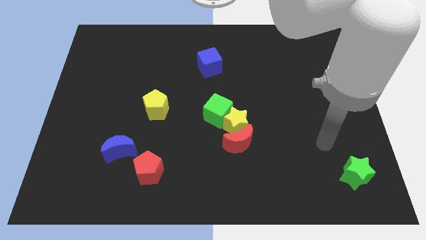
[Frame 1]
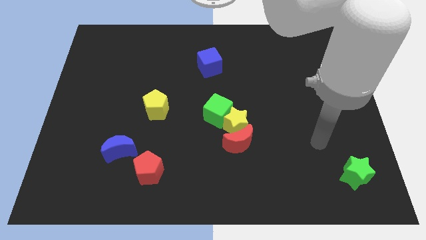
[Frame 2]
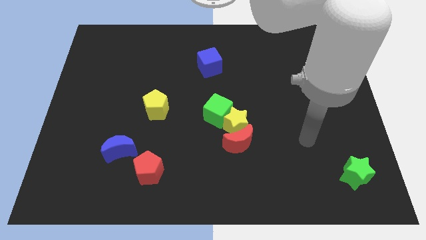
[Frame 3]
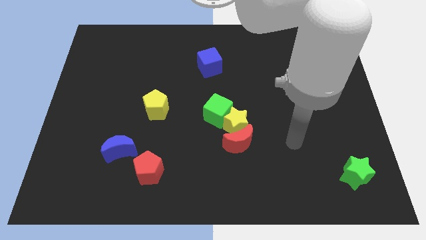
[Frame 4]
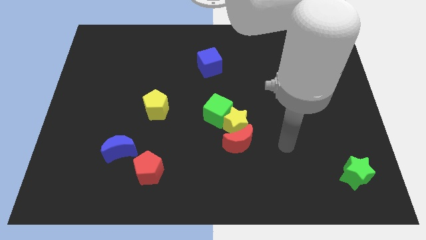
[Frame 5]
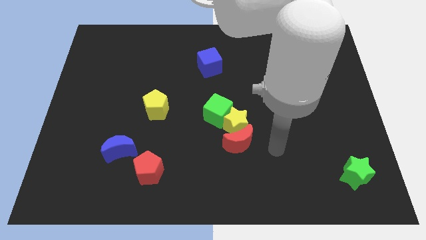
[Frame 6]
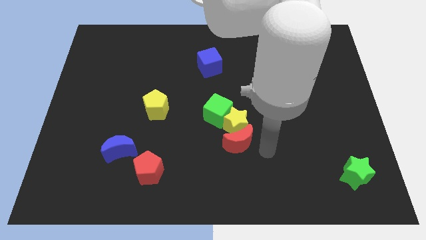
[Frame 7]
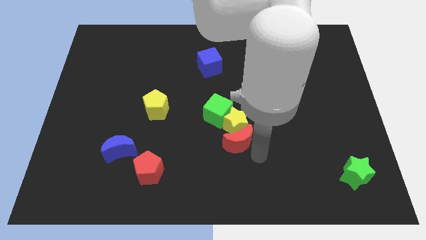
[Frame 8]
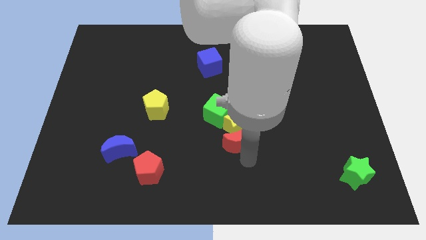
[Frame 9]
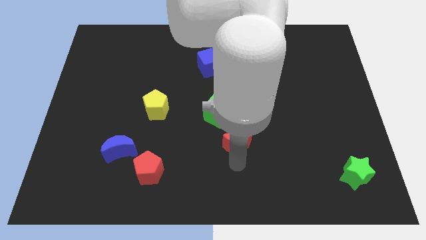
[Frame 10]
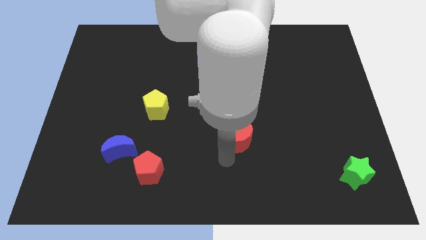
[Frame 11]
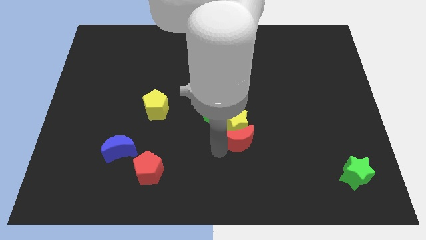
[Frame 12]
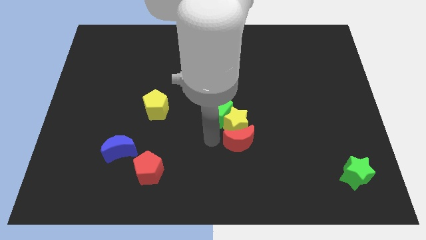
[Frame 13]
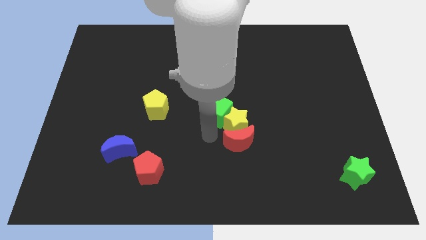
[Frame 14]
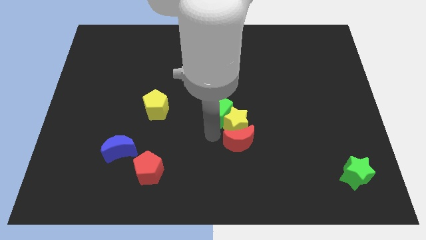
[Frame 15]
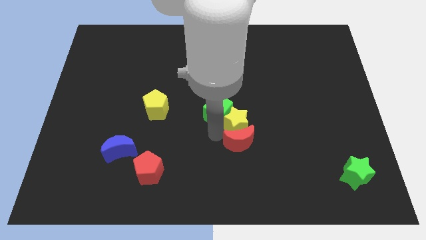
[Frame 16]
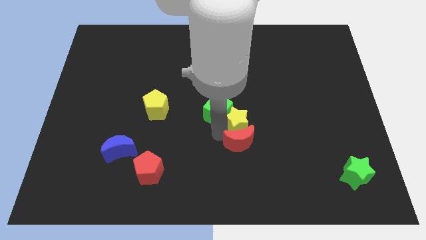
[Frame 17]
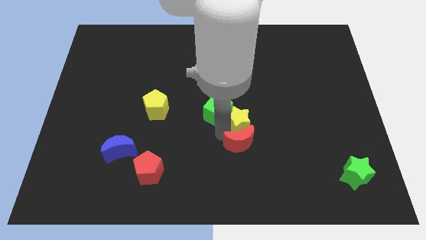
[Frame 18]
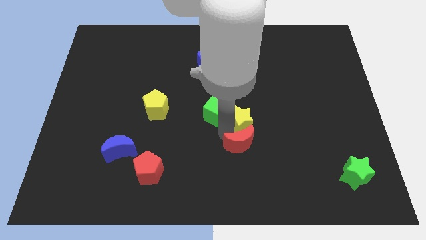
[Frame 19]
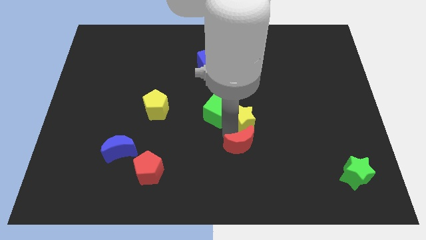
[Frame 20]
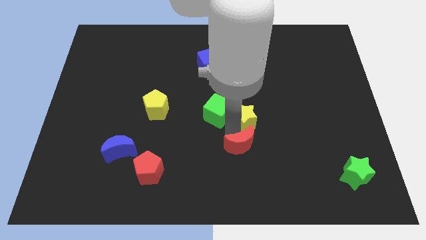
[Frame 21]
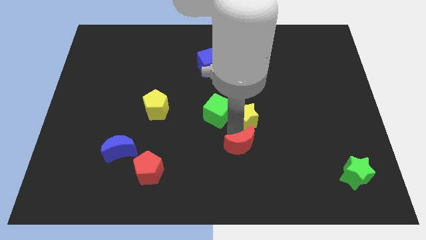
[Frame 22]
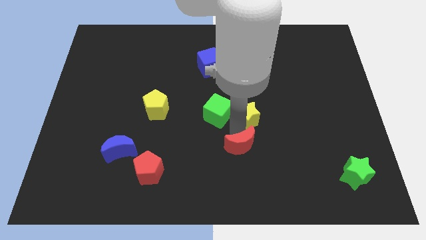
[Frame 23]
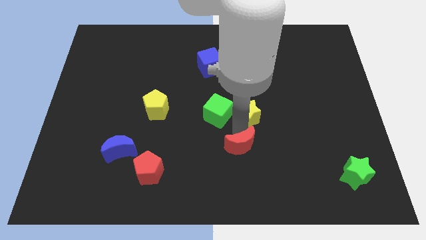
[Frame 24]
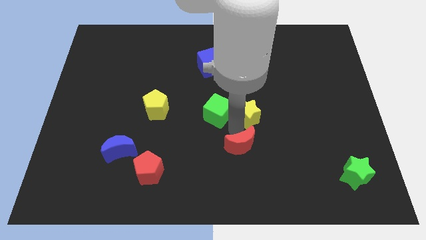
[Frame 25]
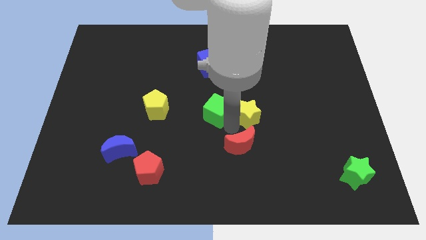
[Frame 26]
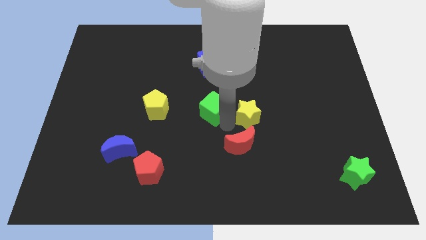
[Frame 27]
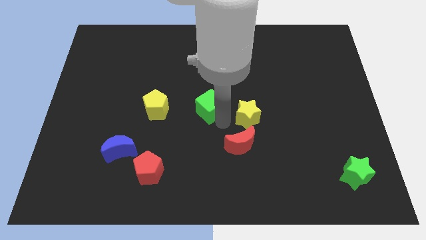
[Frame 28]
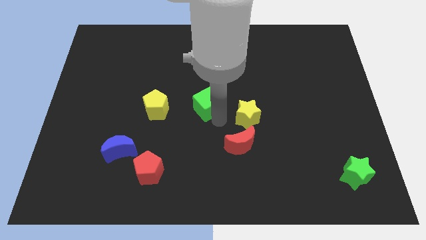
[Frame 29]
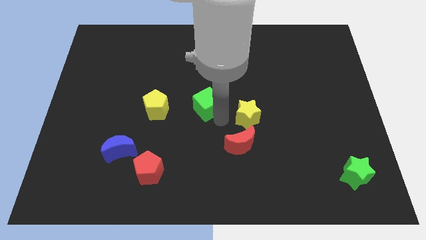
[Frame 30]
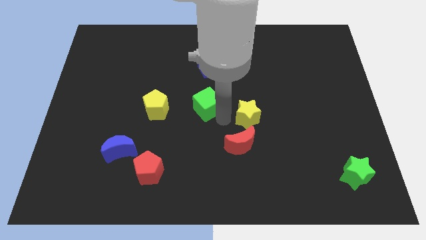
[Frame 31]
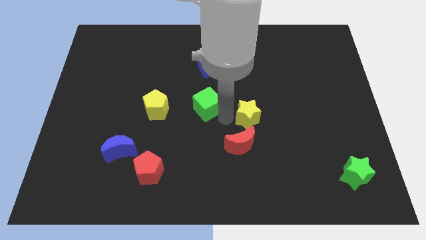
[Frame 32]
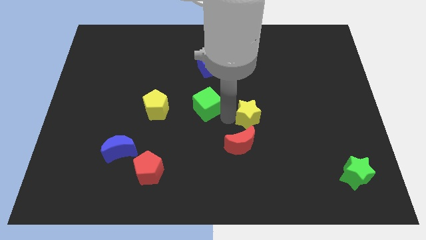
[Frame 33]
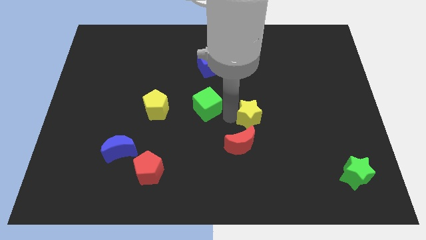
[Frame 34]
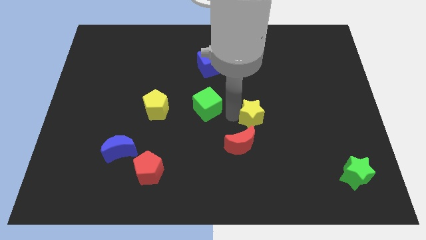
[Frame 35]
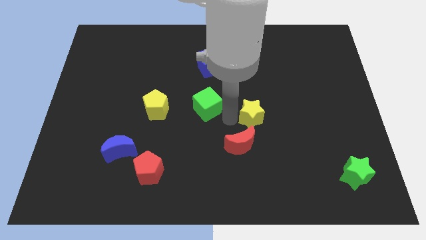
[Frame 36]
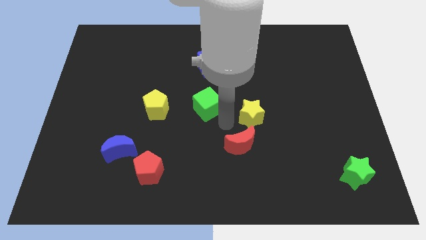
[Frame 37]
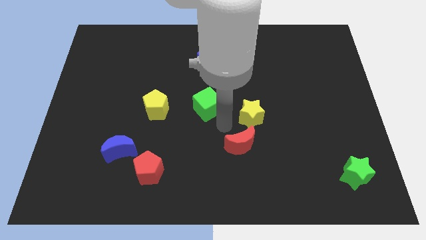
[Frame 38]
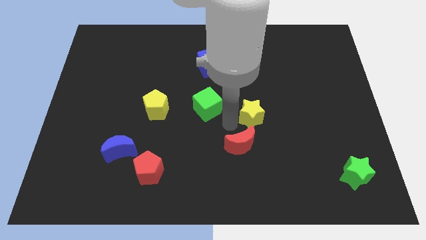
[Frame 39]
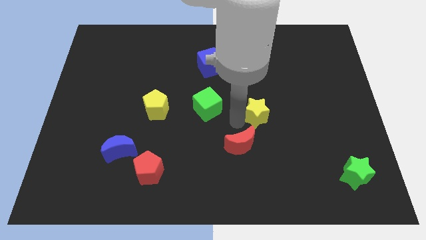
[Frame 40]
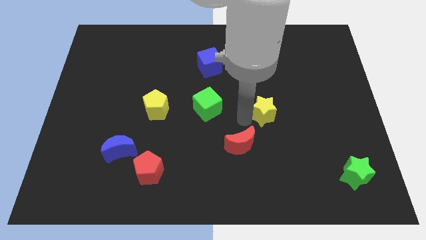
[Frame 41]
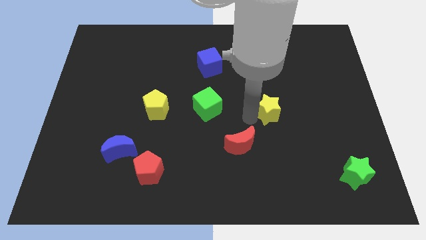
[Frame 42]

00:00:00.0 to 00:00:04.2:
pull the yellow star apart from the red moon and green cube

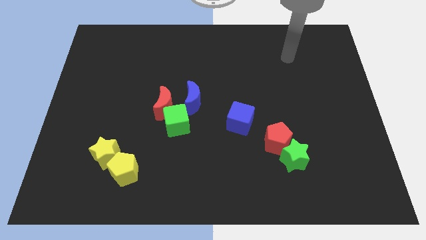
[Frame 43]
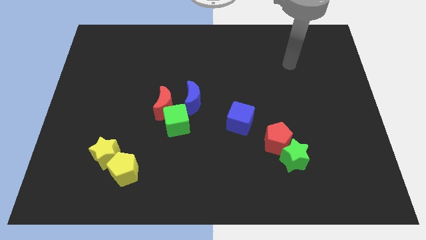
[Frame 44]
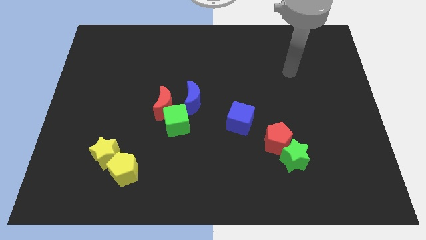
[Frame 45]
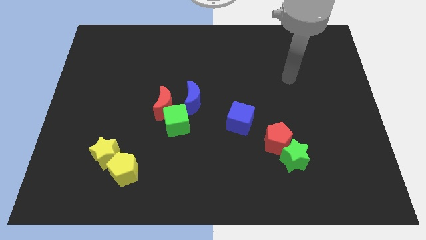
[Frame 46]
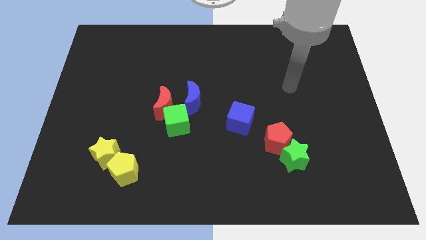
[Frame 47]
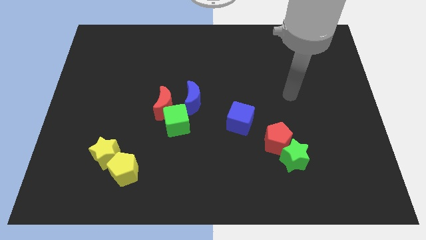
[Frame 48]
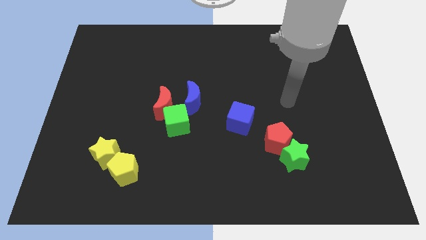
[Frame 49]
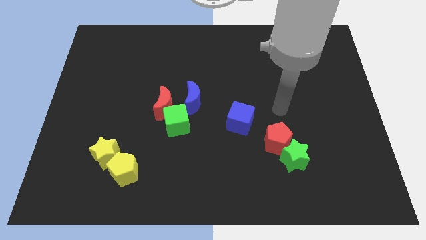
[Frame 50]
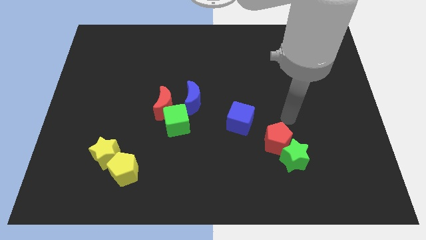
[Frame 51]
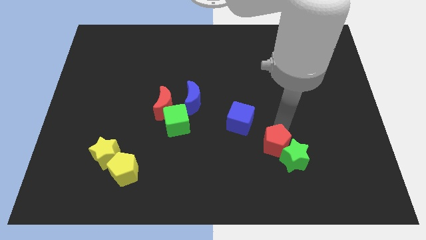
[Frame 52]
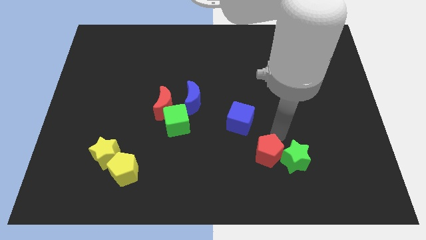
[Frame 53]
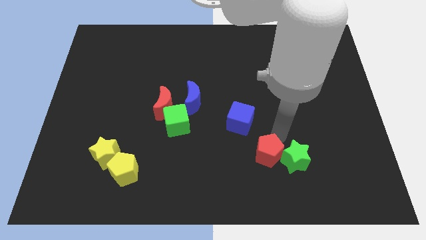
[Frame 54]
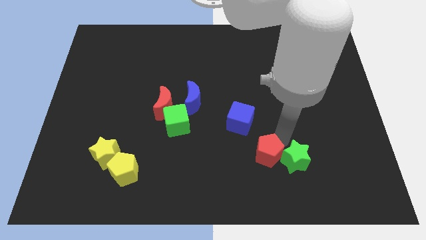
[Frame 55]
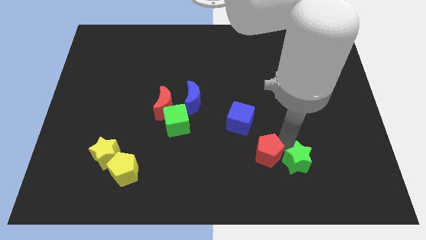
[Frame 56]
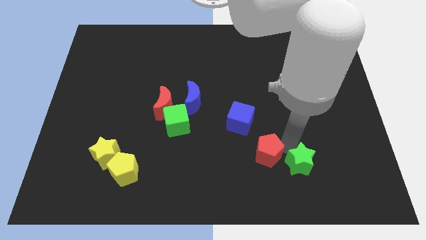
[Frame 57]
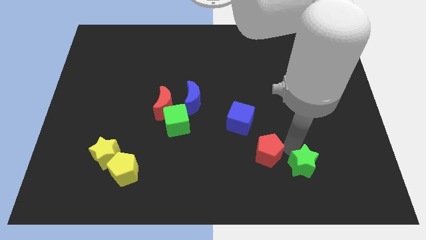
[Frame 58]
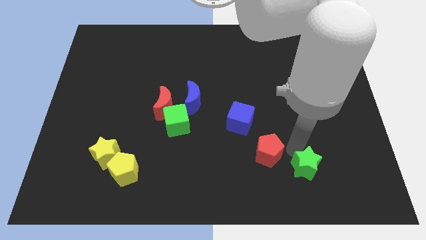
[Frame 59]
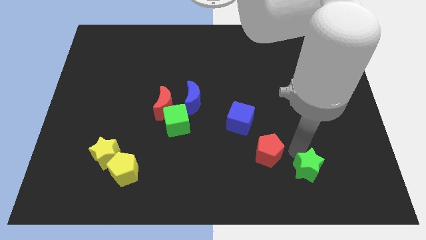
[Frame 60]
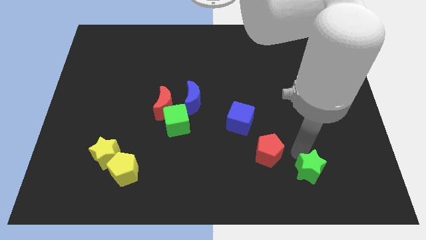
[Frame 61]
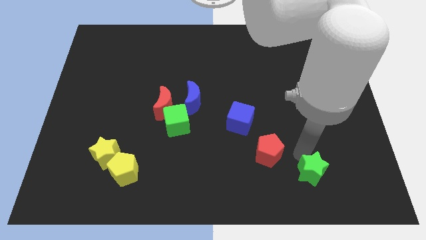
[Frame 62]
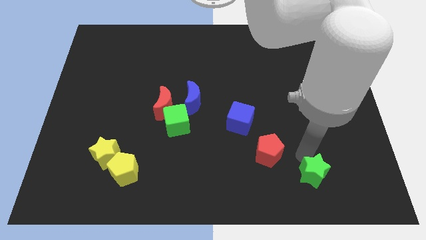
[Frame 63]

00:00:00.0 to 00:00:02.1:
move the green star away from the red pentagon

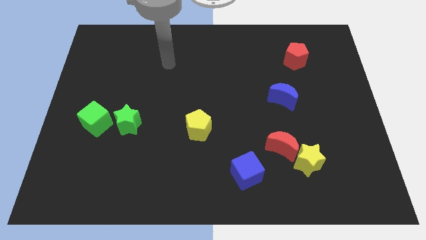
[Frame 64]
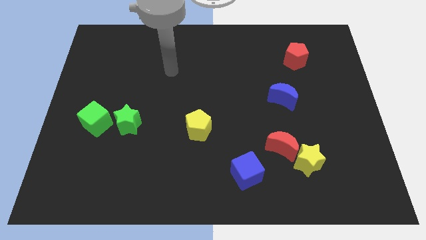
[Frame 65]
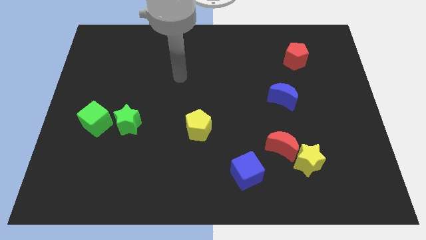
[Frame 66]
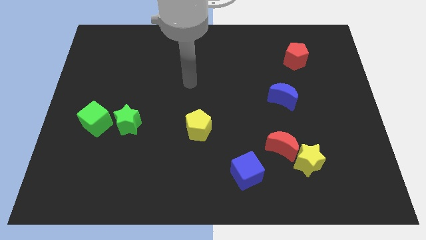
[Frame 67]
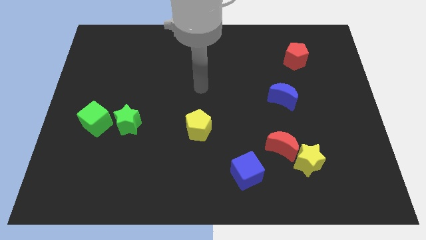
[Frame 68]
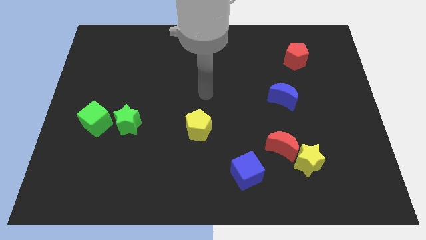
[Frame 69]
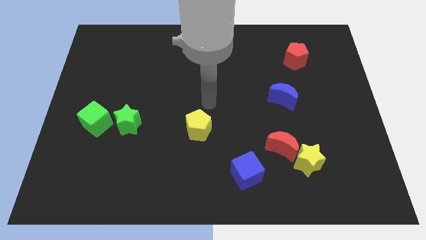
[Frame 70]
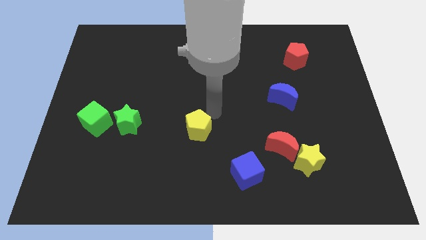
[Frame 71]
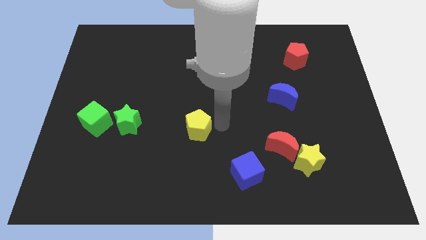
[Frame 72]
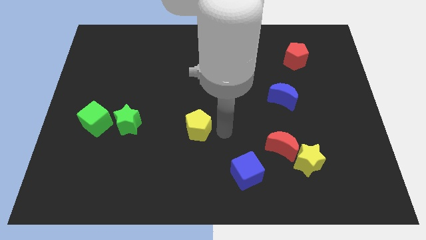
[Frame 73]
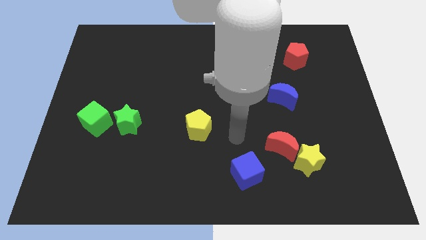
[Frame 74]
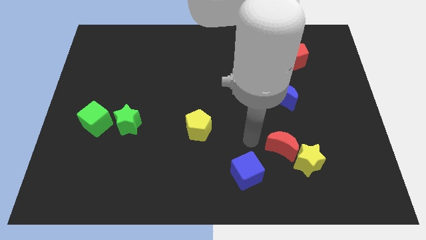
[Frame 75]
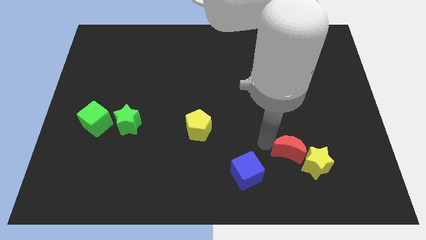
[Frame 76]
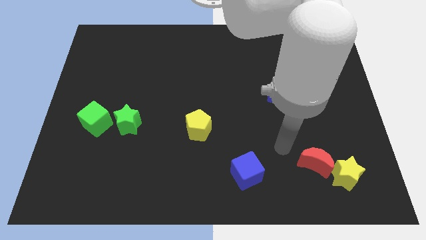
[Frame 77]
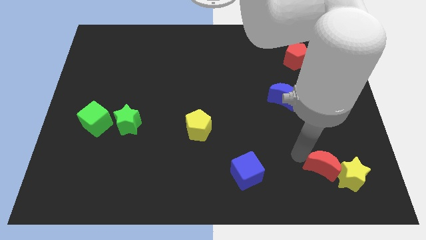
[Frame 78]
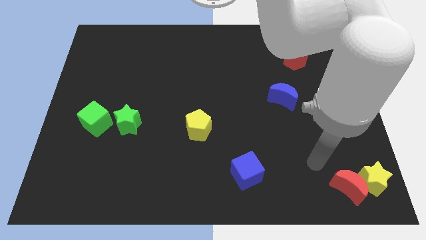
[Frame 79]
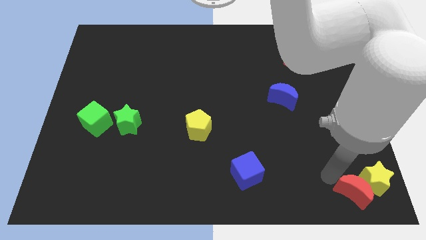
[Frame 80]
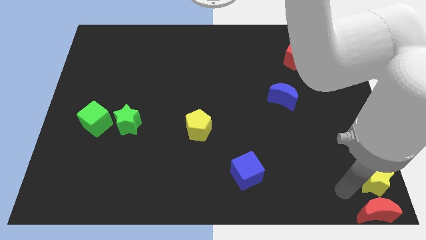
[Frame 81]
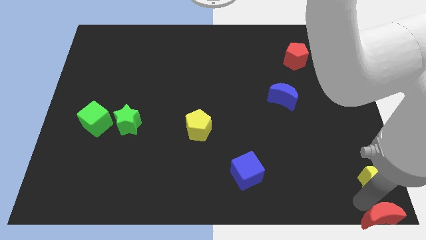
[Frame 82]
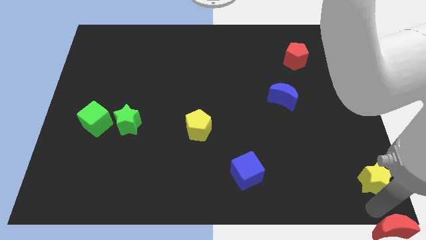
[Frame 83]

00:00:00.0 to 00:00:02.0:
separate the yellow star from the red moon

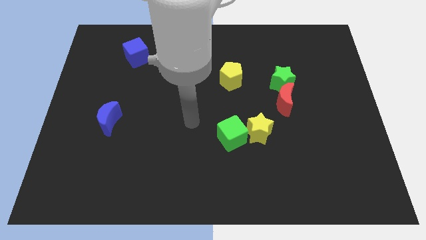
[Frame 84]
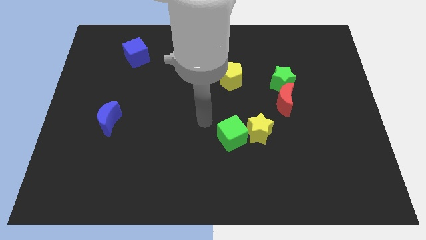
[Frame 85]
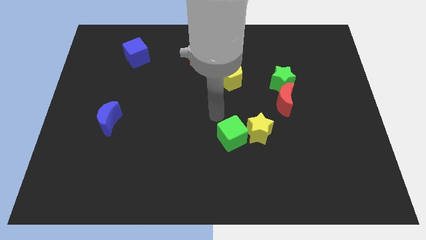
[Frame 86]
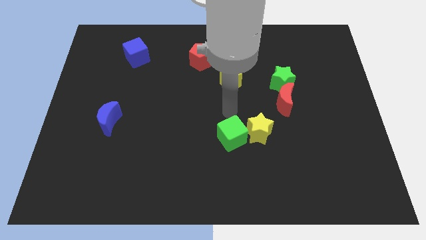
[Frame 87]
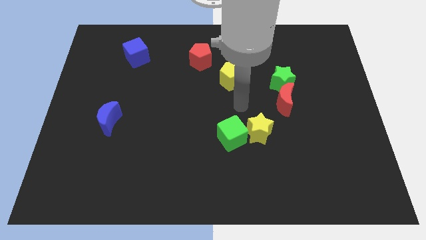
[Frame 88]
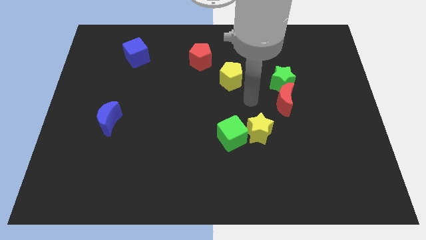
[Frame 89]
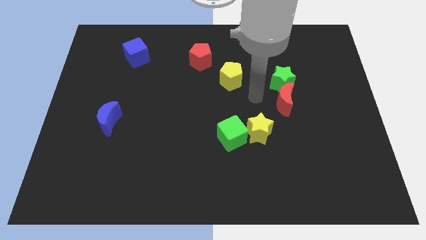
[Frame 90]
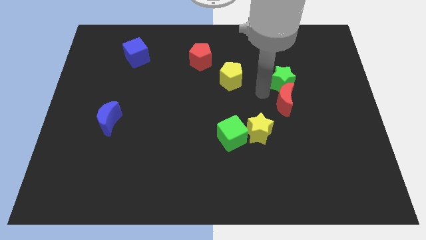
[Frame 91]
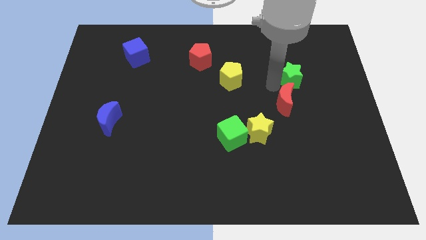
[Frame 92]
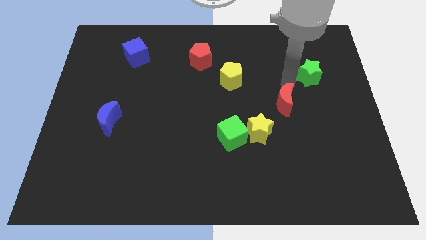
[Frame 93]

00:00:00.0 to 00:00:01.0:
separate the red moon from the green star
